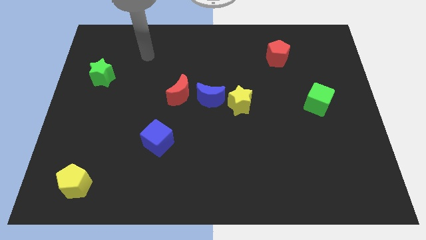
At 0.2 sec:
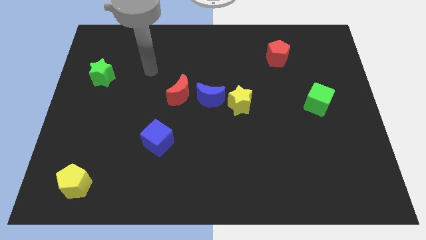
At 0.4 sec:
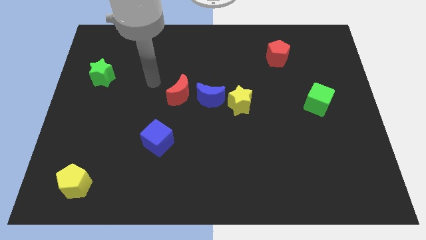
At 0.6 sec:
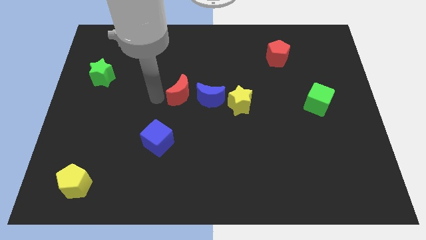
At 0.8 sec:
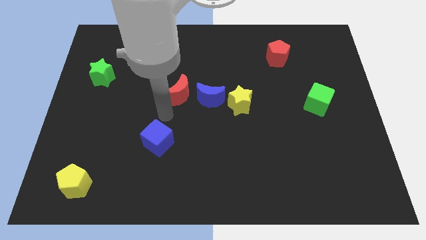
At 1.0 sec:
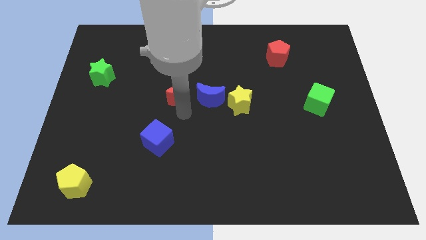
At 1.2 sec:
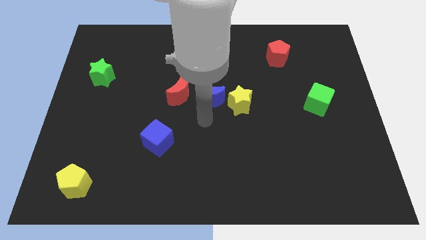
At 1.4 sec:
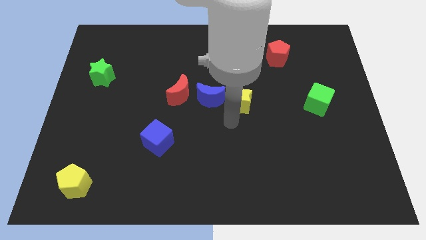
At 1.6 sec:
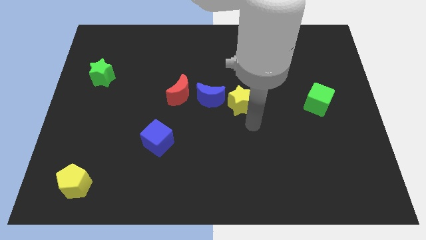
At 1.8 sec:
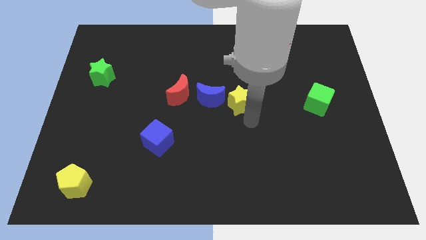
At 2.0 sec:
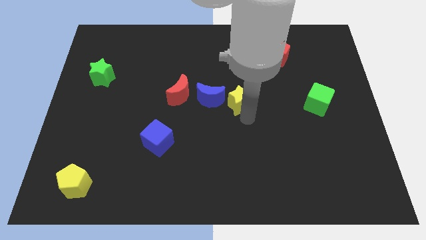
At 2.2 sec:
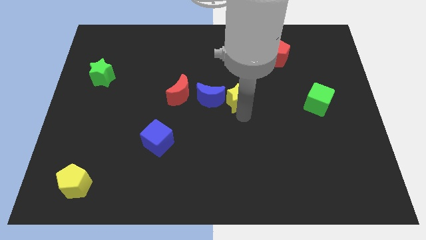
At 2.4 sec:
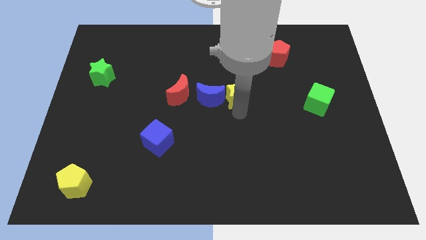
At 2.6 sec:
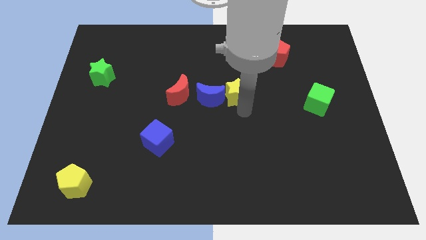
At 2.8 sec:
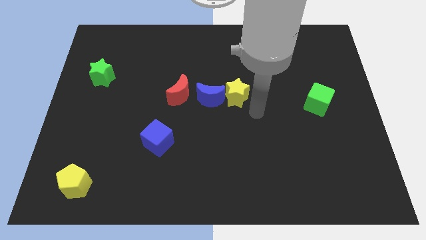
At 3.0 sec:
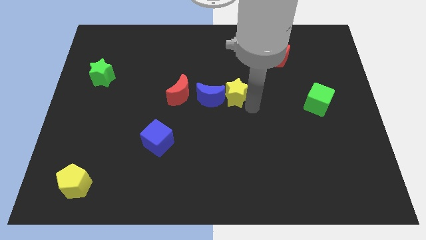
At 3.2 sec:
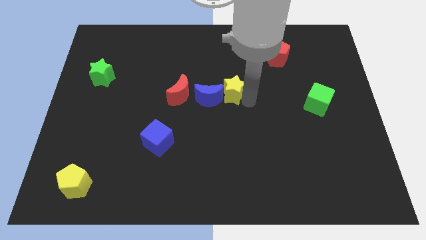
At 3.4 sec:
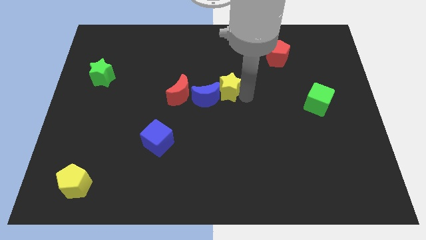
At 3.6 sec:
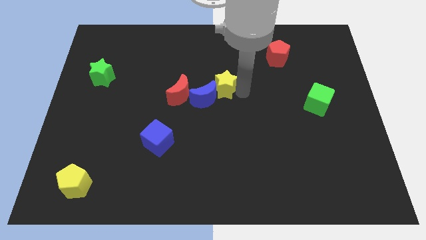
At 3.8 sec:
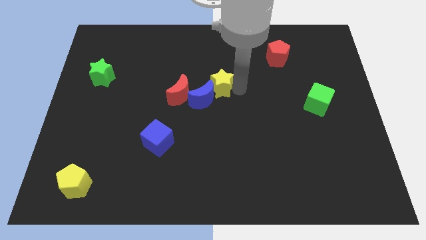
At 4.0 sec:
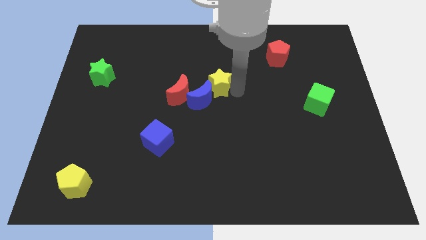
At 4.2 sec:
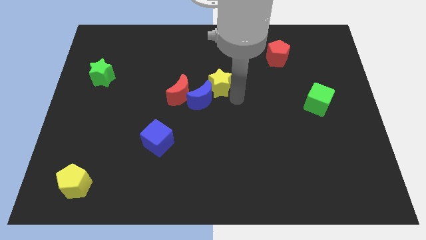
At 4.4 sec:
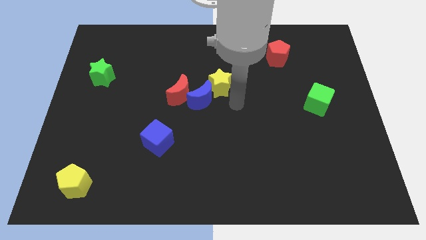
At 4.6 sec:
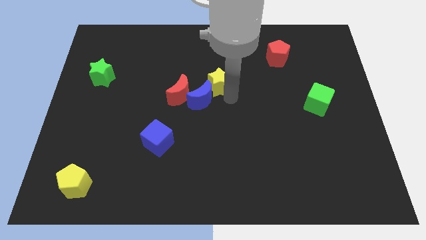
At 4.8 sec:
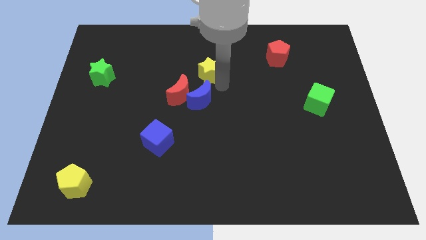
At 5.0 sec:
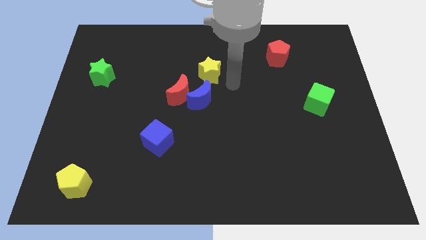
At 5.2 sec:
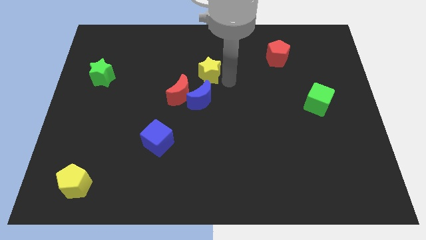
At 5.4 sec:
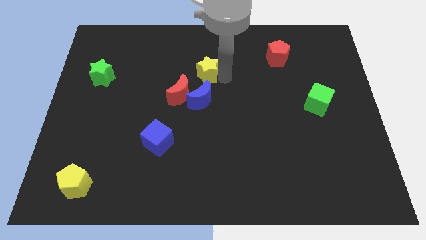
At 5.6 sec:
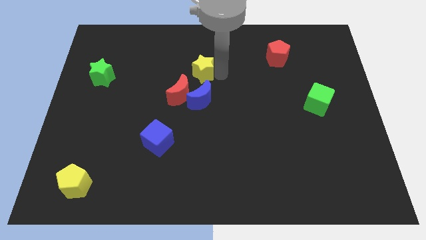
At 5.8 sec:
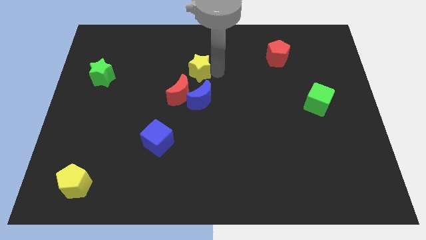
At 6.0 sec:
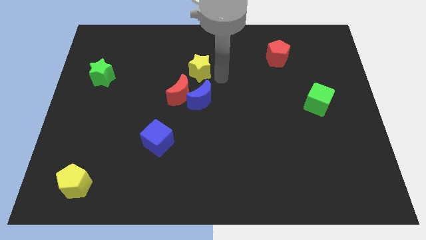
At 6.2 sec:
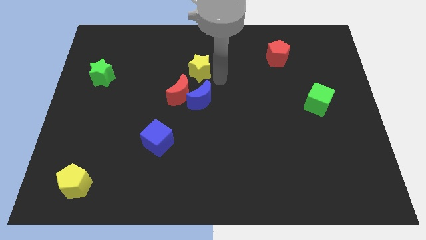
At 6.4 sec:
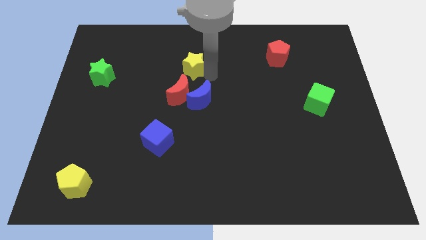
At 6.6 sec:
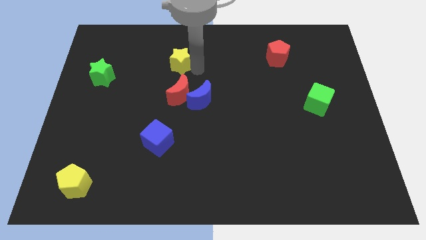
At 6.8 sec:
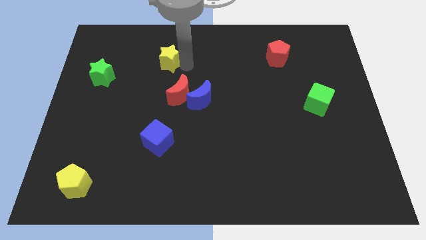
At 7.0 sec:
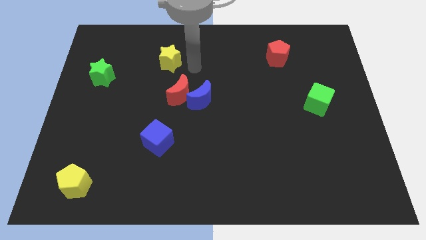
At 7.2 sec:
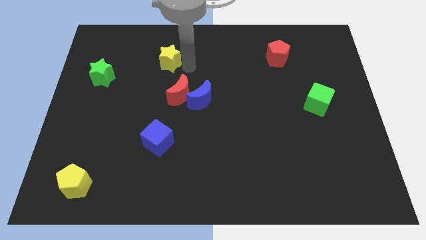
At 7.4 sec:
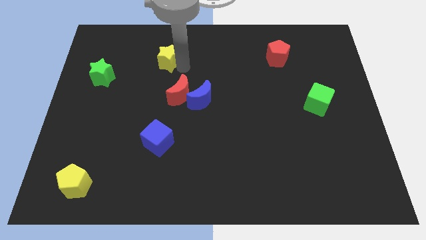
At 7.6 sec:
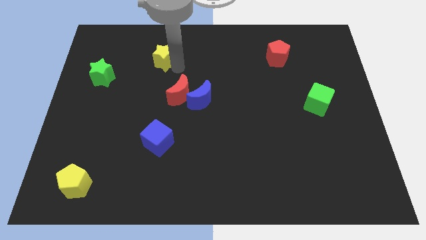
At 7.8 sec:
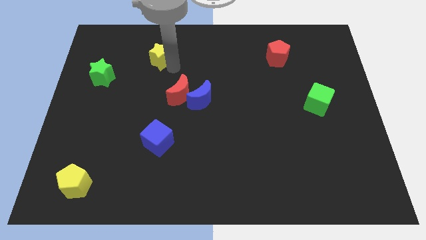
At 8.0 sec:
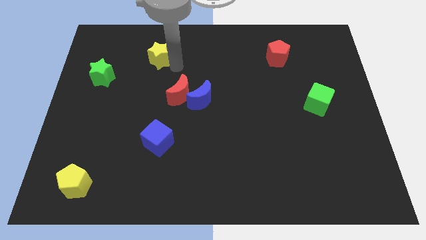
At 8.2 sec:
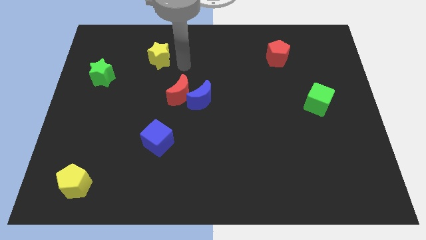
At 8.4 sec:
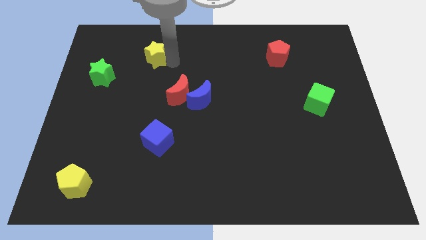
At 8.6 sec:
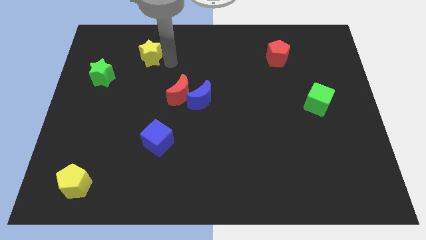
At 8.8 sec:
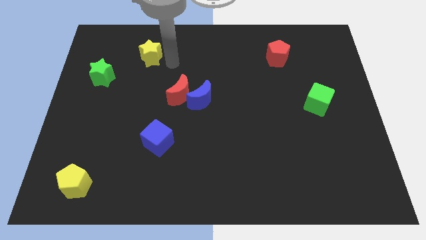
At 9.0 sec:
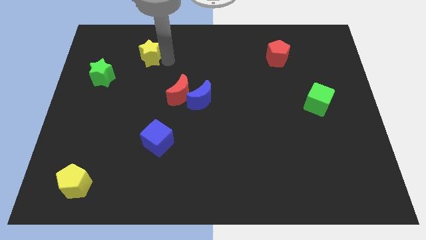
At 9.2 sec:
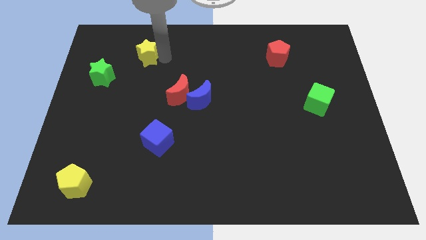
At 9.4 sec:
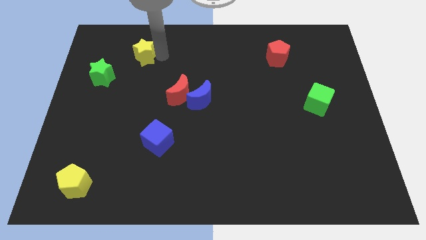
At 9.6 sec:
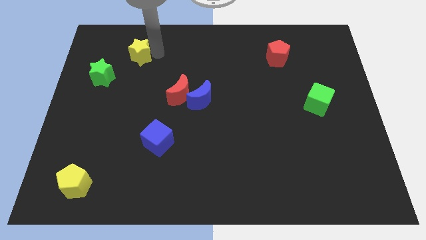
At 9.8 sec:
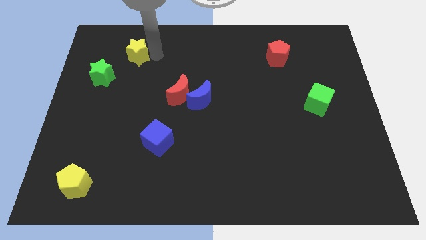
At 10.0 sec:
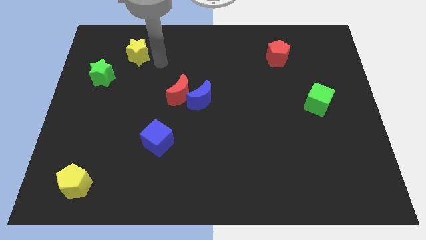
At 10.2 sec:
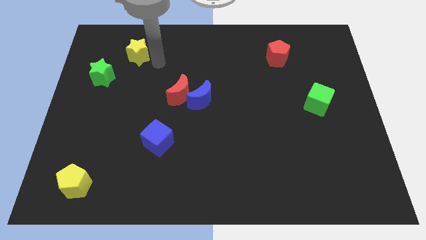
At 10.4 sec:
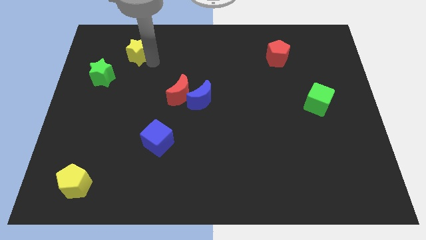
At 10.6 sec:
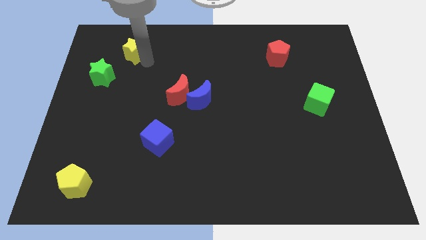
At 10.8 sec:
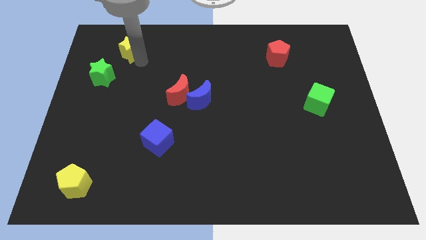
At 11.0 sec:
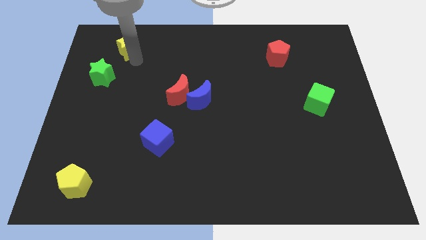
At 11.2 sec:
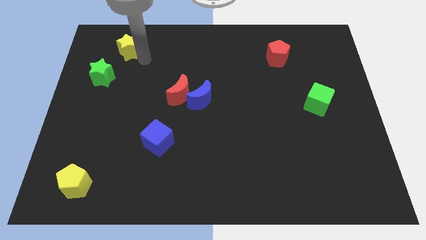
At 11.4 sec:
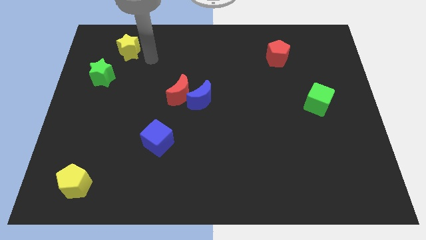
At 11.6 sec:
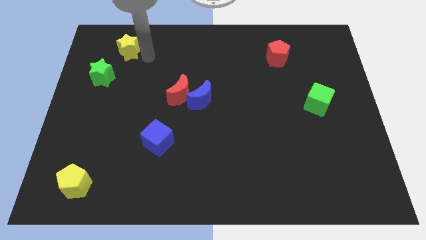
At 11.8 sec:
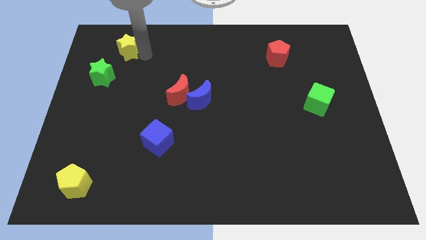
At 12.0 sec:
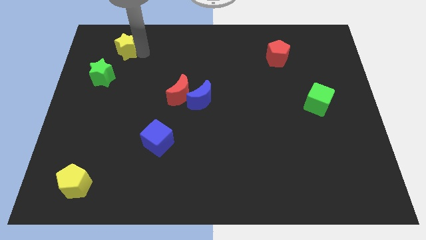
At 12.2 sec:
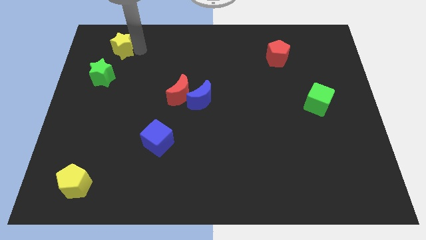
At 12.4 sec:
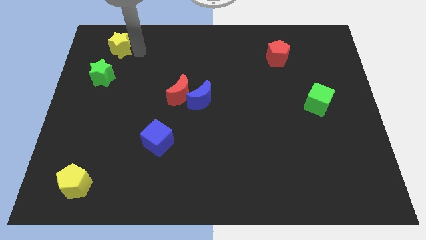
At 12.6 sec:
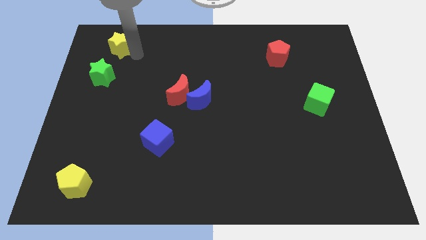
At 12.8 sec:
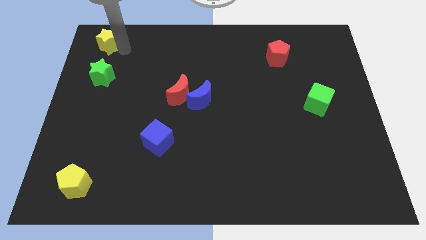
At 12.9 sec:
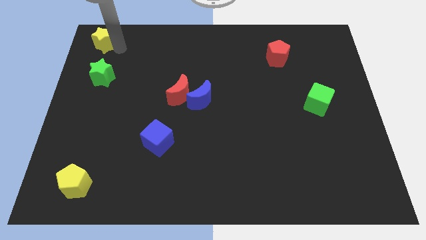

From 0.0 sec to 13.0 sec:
move the yellow star to the upper left corner
